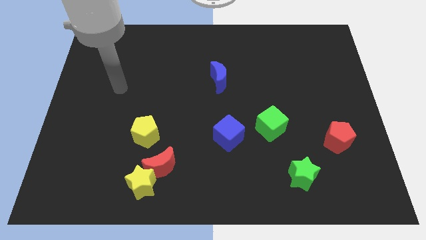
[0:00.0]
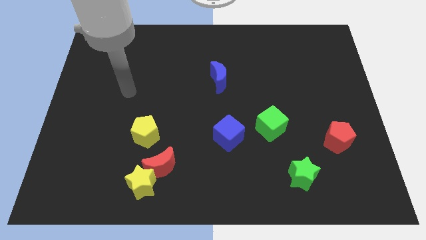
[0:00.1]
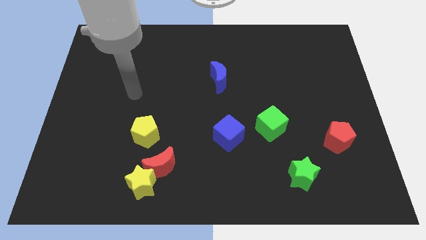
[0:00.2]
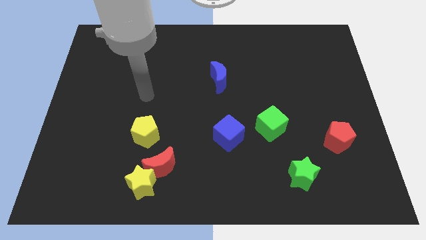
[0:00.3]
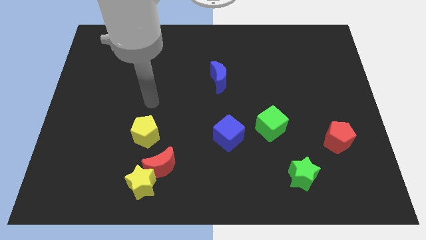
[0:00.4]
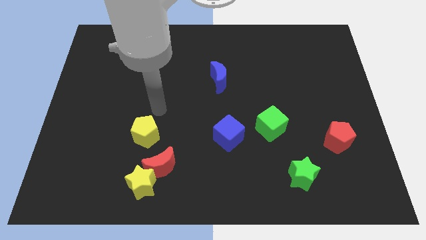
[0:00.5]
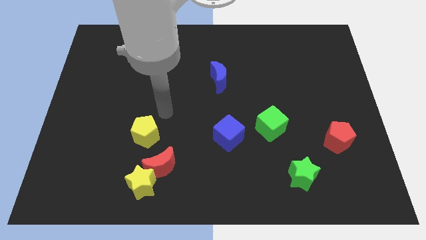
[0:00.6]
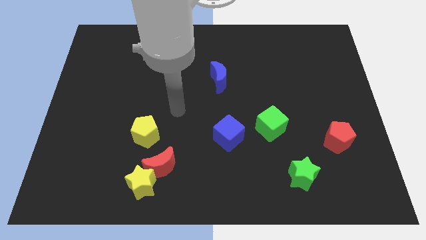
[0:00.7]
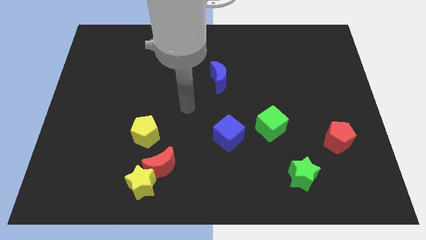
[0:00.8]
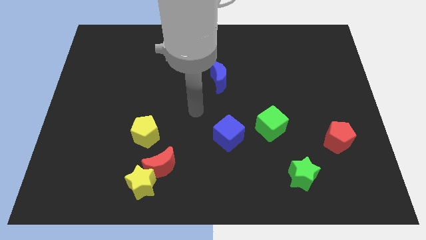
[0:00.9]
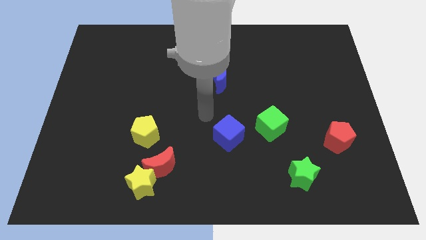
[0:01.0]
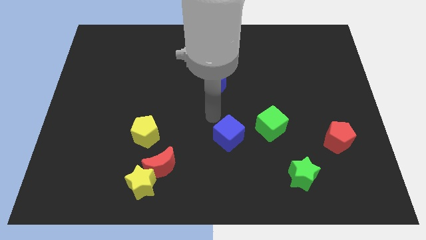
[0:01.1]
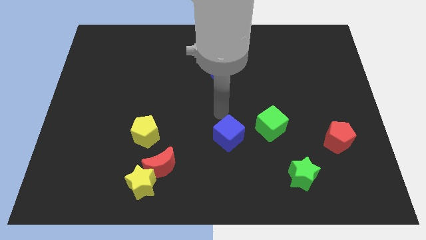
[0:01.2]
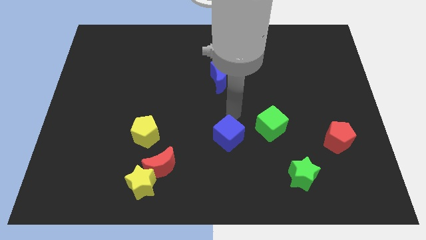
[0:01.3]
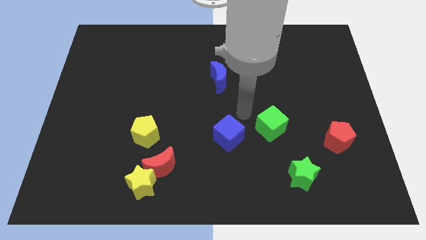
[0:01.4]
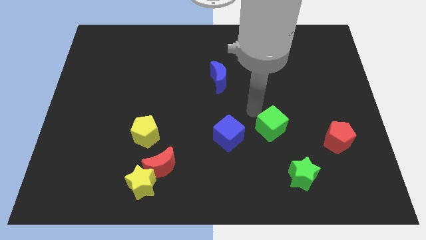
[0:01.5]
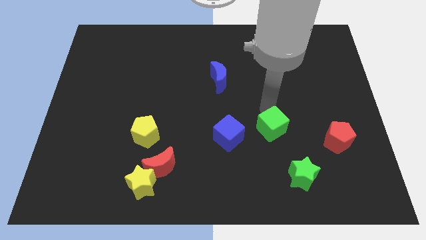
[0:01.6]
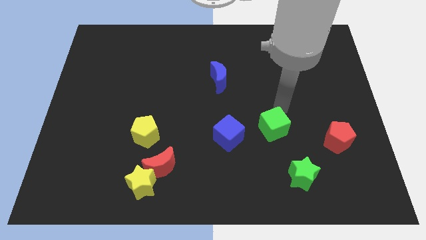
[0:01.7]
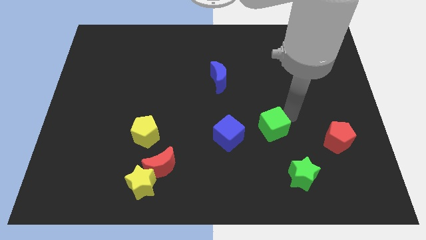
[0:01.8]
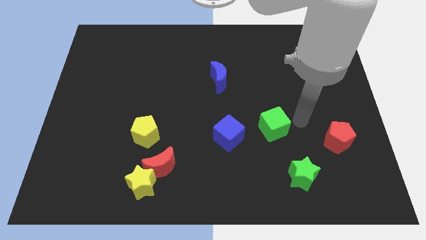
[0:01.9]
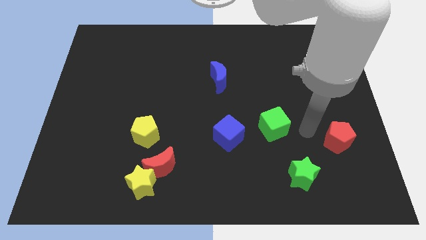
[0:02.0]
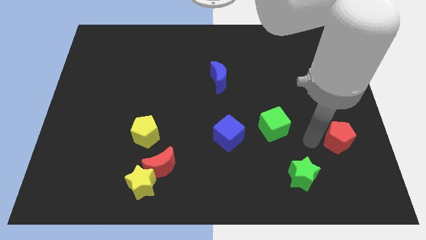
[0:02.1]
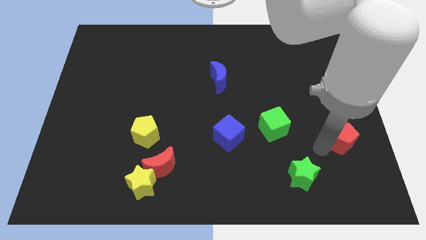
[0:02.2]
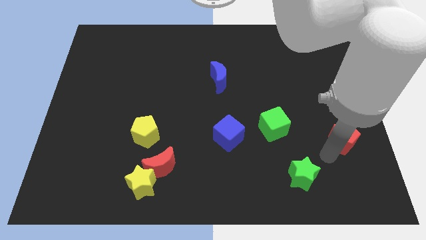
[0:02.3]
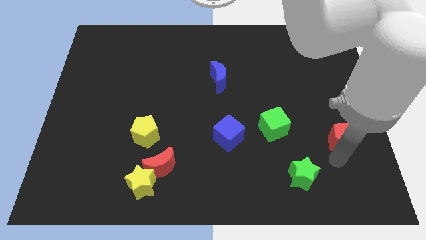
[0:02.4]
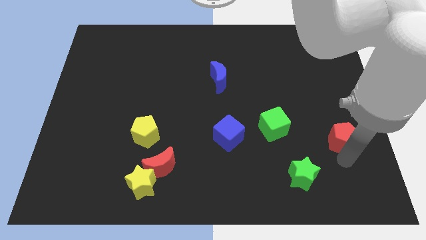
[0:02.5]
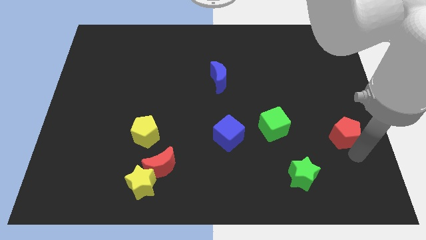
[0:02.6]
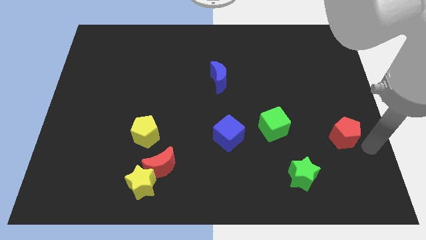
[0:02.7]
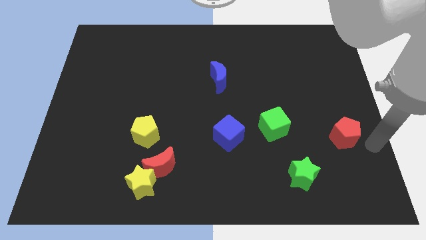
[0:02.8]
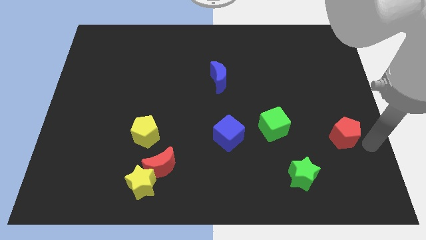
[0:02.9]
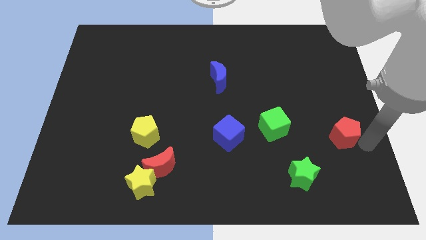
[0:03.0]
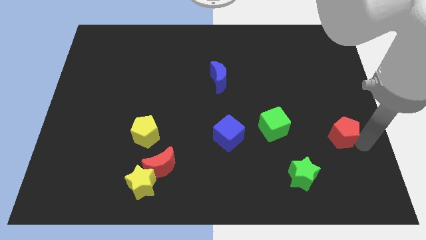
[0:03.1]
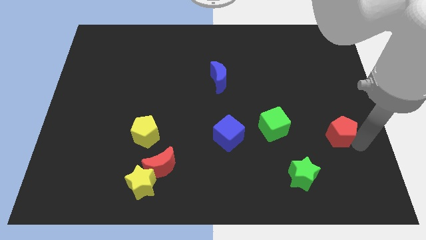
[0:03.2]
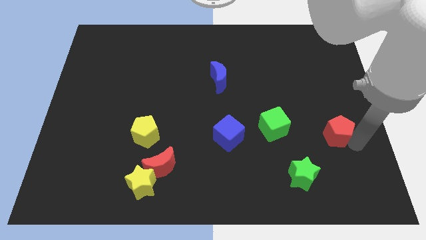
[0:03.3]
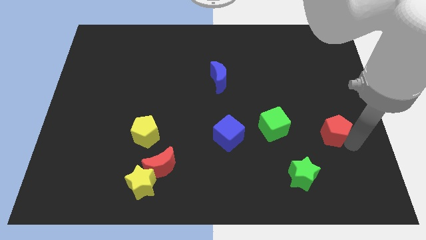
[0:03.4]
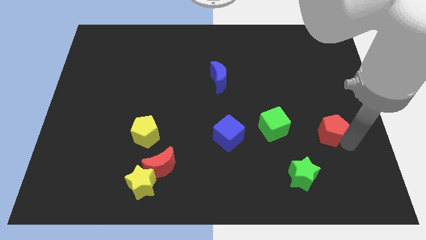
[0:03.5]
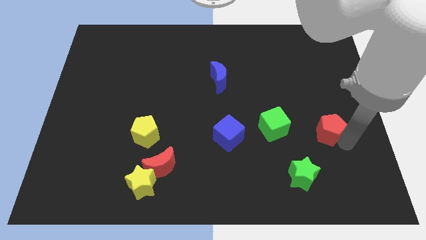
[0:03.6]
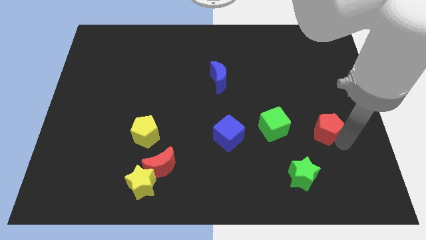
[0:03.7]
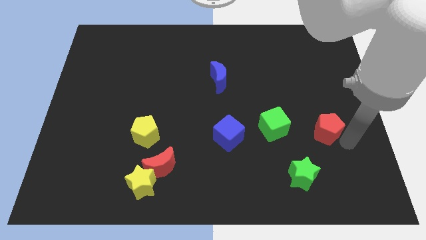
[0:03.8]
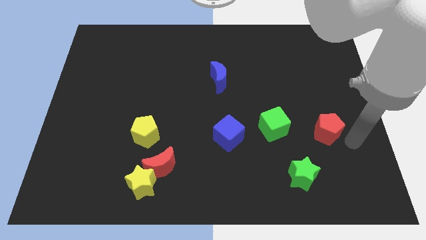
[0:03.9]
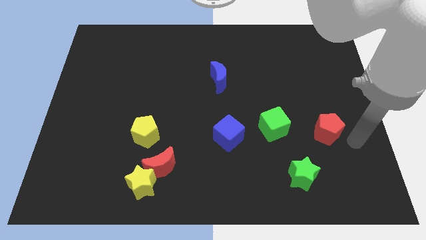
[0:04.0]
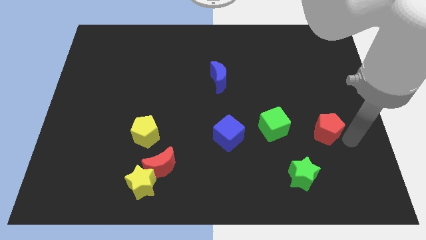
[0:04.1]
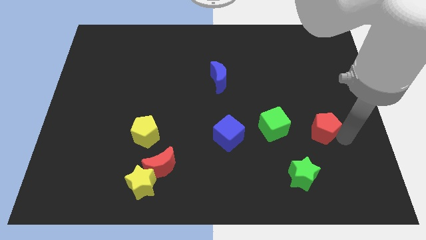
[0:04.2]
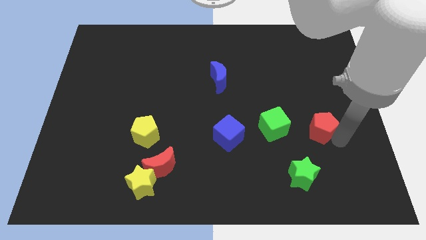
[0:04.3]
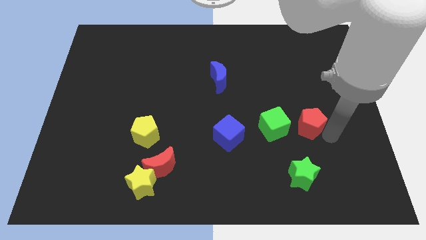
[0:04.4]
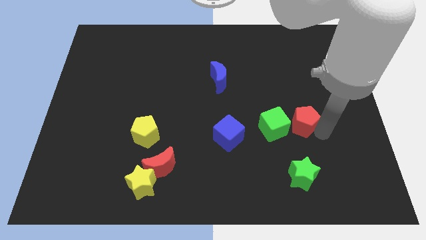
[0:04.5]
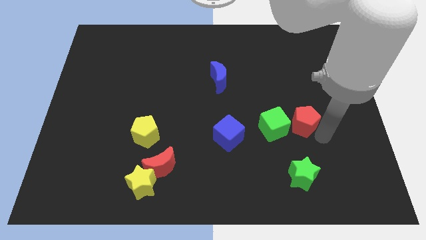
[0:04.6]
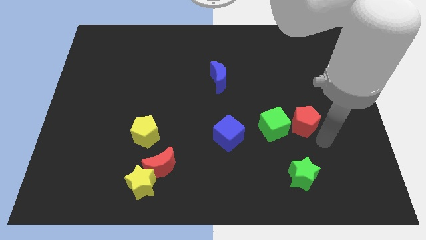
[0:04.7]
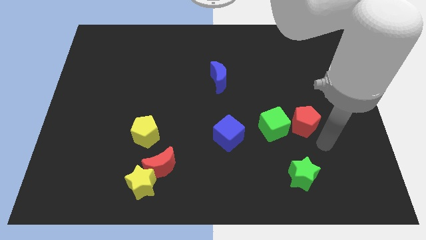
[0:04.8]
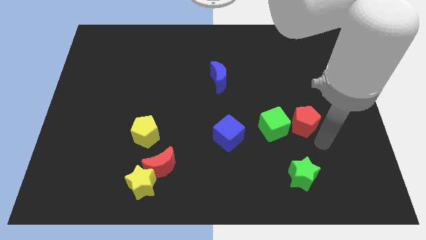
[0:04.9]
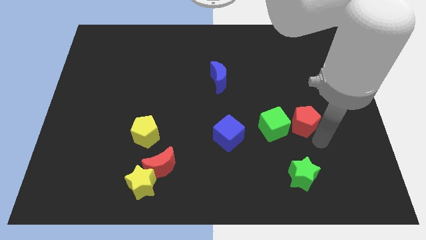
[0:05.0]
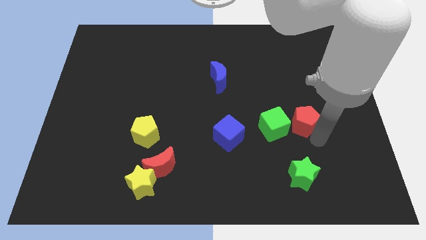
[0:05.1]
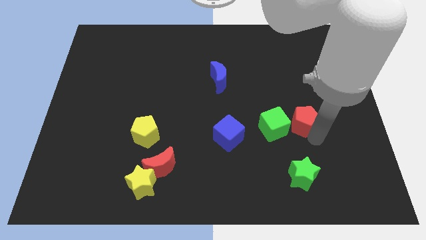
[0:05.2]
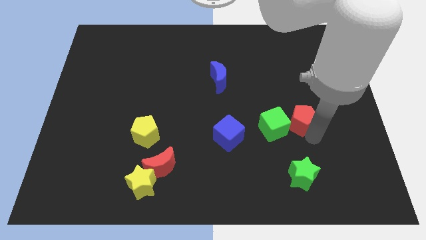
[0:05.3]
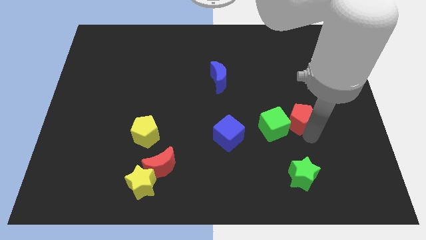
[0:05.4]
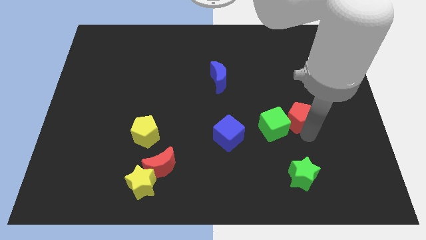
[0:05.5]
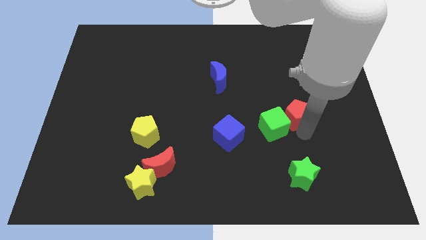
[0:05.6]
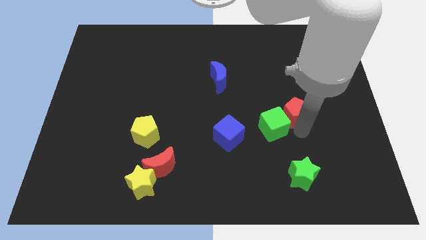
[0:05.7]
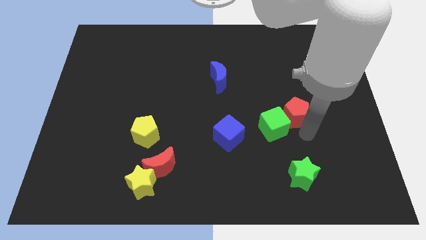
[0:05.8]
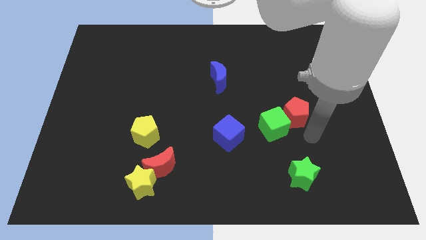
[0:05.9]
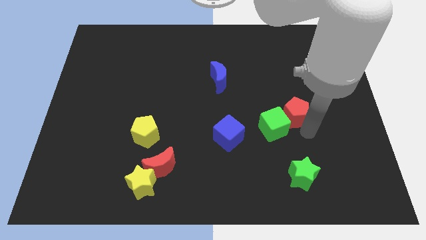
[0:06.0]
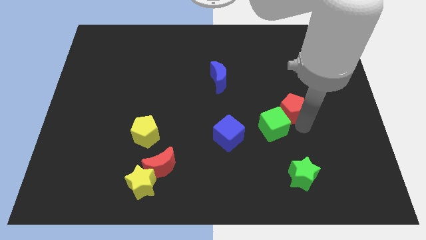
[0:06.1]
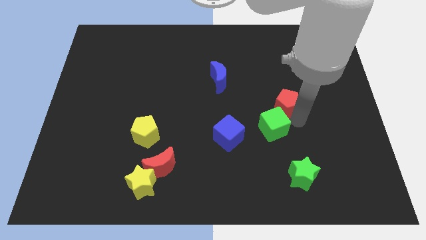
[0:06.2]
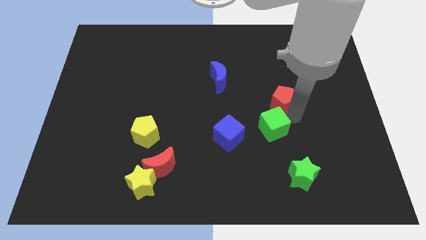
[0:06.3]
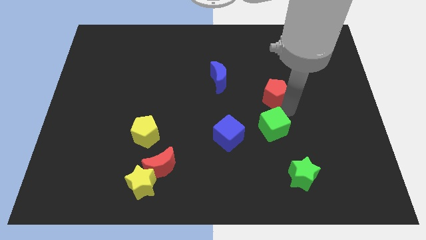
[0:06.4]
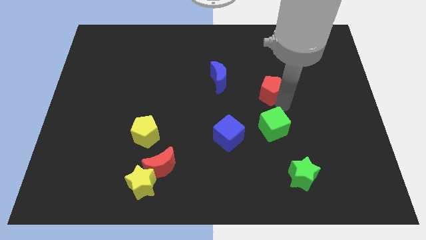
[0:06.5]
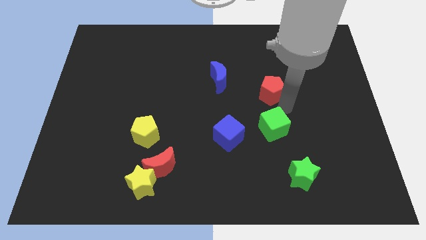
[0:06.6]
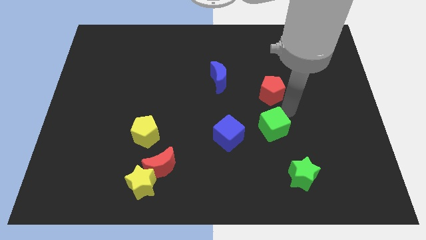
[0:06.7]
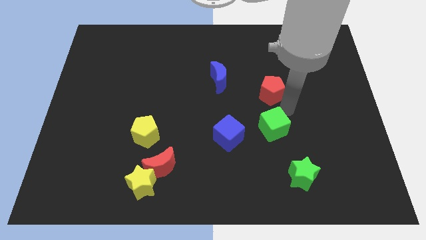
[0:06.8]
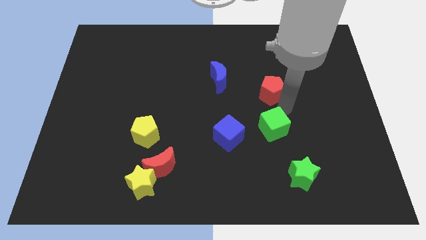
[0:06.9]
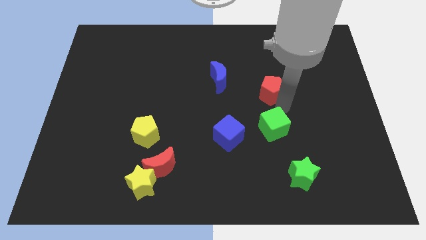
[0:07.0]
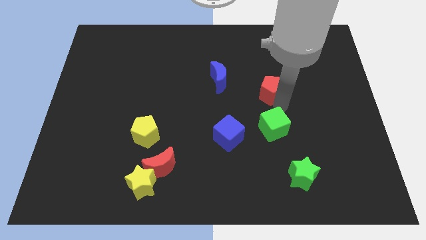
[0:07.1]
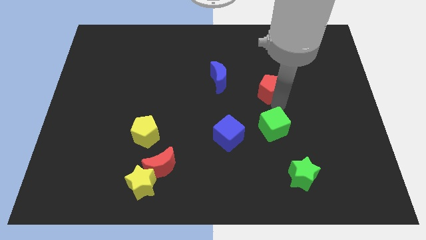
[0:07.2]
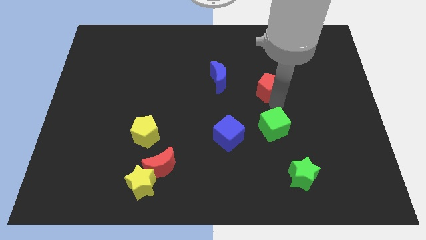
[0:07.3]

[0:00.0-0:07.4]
slide the red pentagon up and to the left diagonally

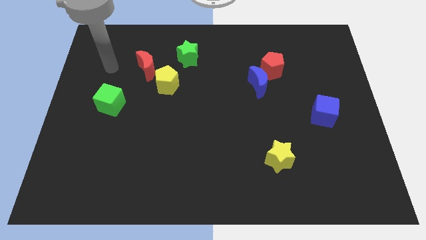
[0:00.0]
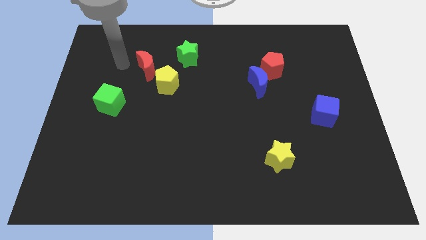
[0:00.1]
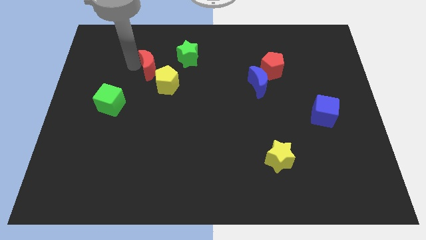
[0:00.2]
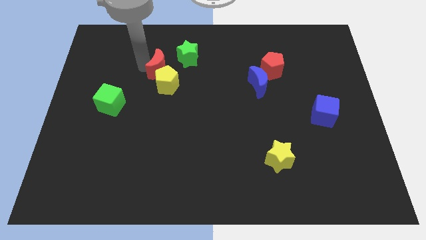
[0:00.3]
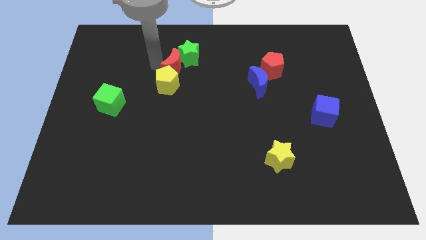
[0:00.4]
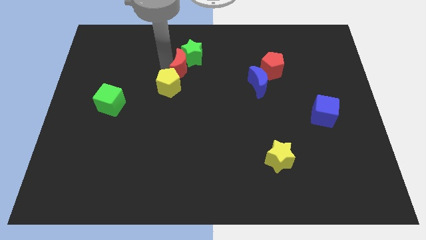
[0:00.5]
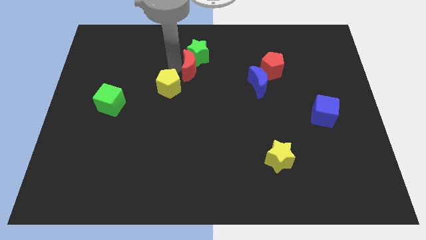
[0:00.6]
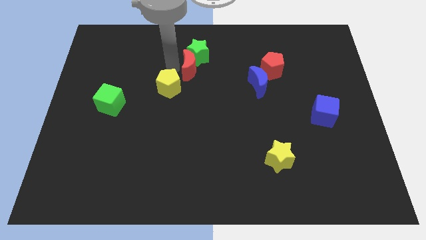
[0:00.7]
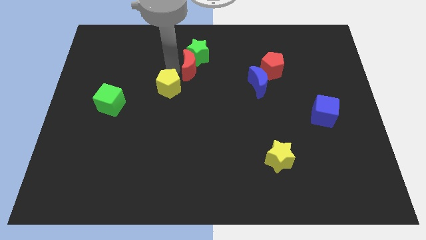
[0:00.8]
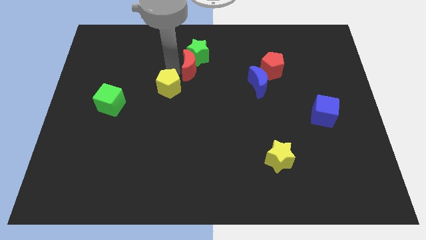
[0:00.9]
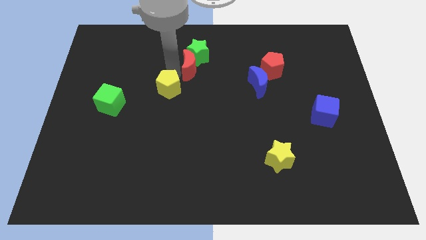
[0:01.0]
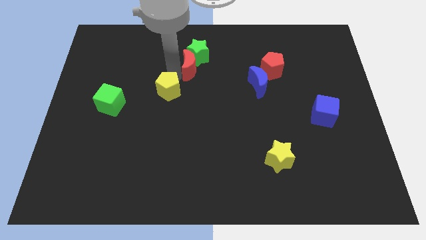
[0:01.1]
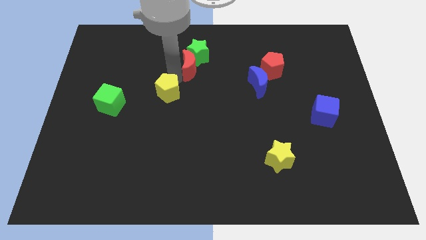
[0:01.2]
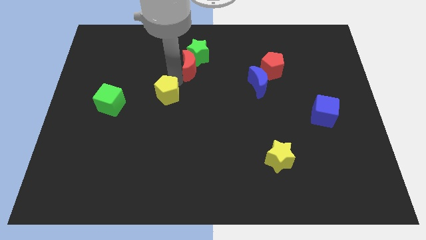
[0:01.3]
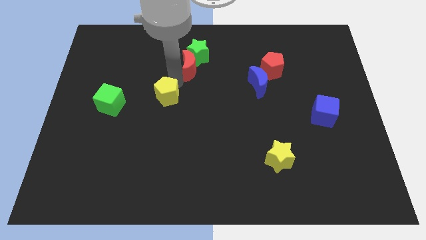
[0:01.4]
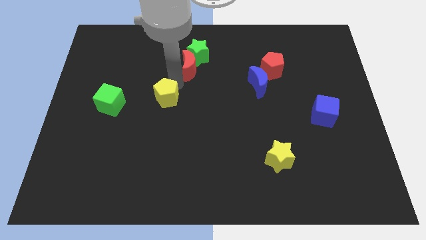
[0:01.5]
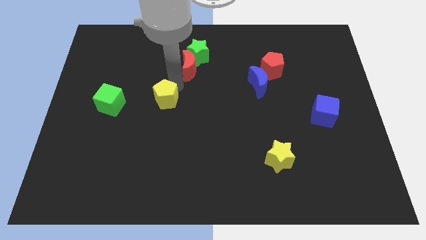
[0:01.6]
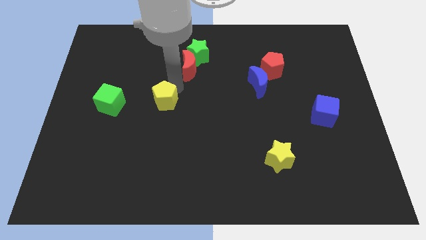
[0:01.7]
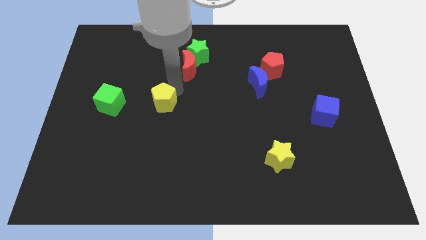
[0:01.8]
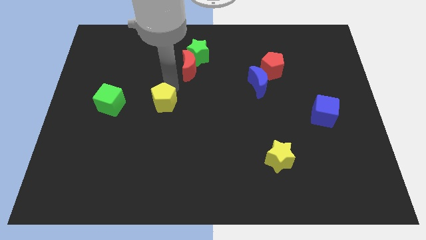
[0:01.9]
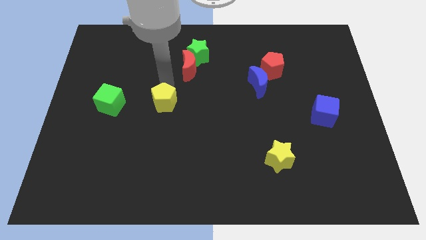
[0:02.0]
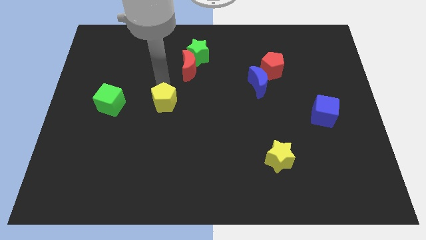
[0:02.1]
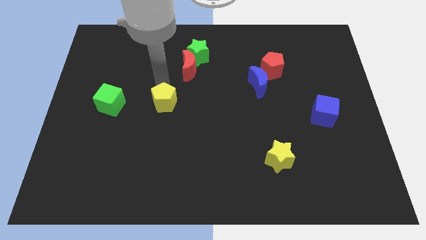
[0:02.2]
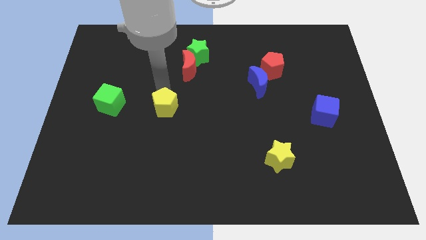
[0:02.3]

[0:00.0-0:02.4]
slightly move the yellow pentagon down
